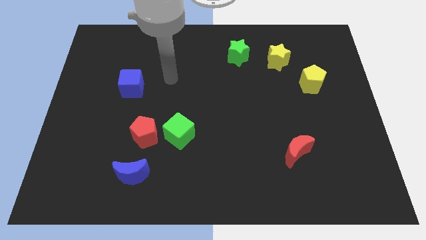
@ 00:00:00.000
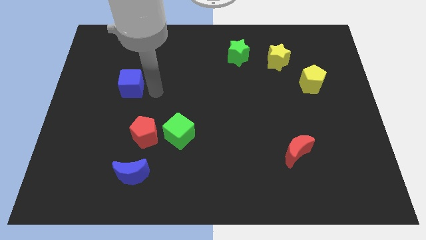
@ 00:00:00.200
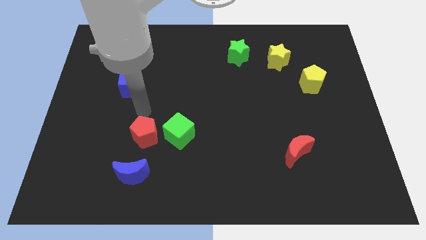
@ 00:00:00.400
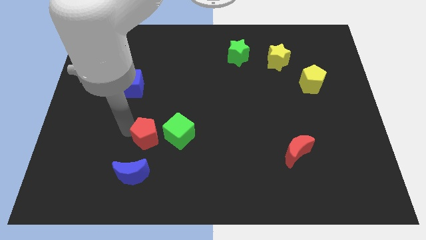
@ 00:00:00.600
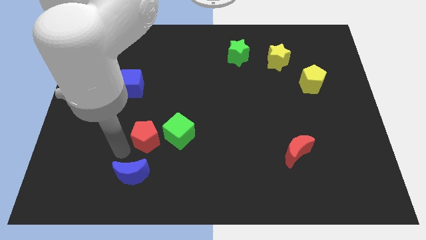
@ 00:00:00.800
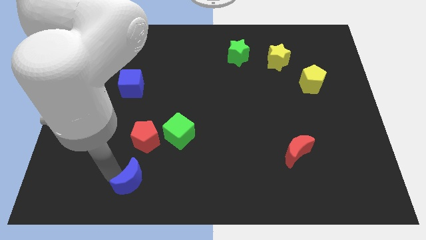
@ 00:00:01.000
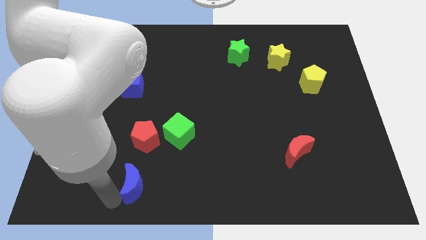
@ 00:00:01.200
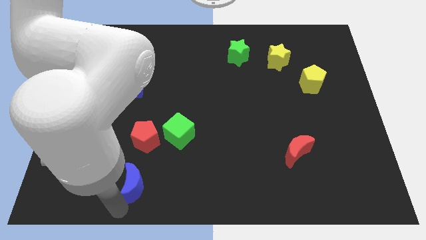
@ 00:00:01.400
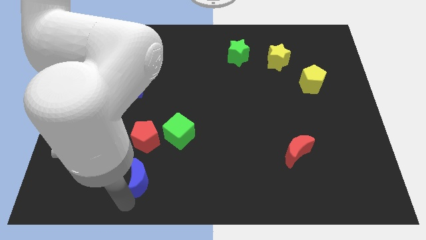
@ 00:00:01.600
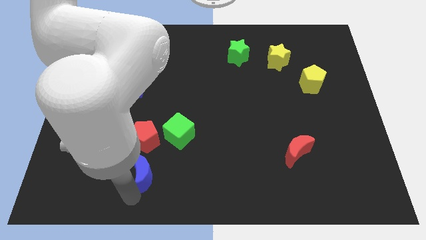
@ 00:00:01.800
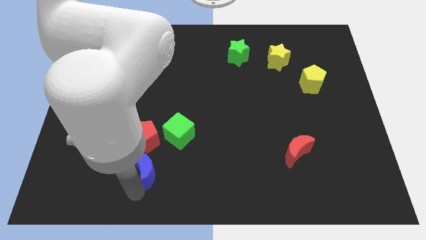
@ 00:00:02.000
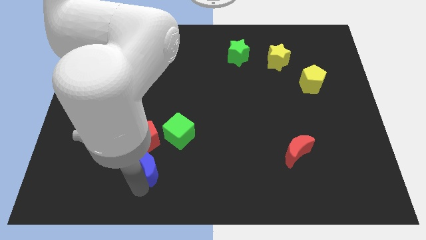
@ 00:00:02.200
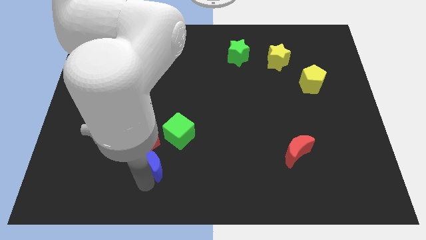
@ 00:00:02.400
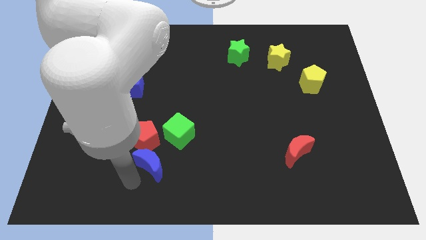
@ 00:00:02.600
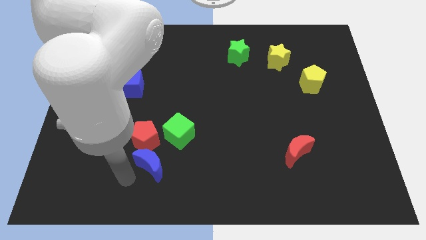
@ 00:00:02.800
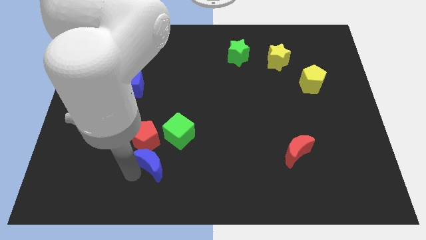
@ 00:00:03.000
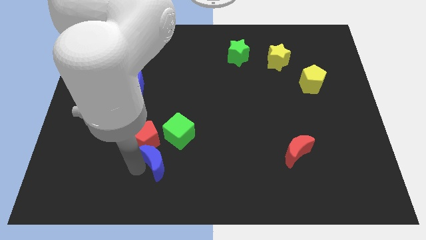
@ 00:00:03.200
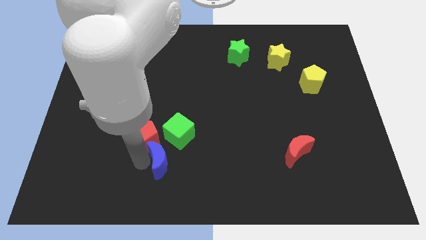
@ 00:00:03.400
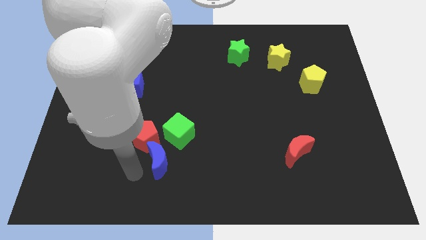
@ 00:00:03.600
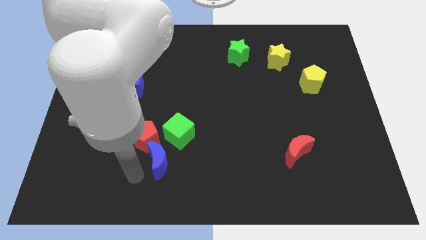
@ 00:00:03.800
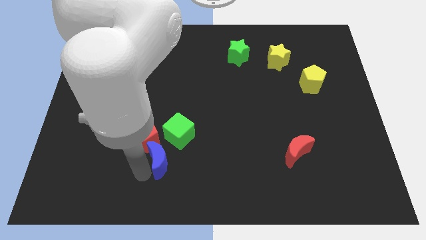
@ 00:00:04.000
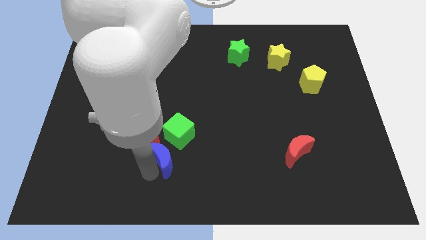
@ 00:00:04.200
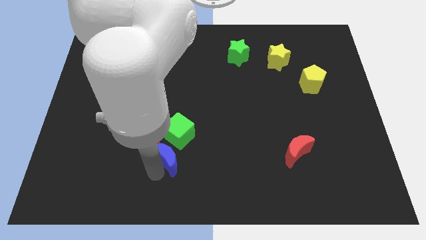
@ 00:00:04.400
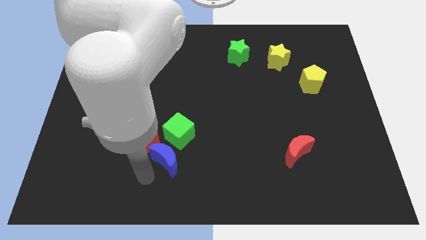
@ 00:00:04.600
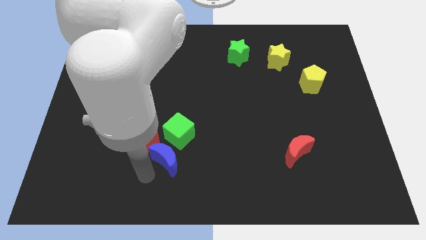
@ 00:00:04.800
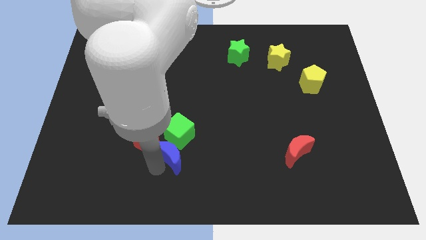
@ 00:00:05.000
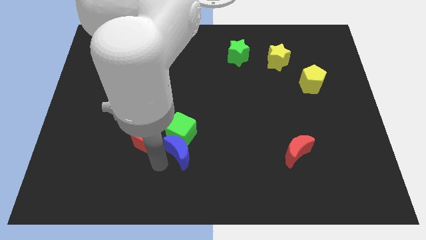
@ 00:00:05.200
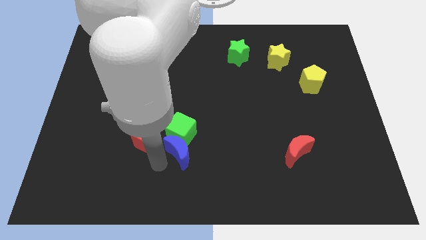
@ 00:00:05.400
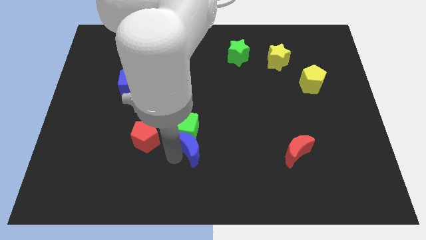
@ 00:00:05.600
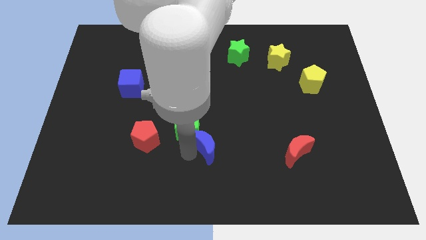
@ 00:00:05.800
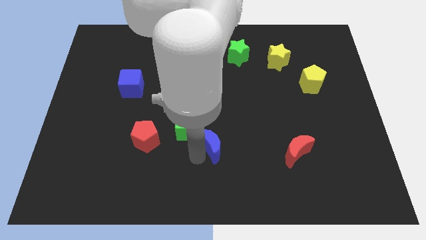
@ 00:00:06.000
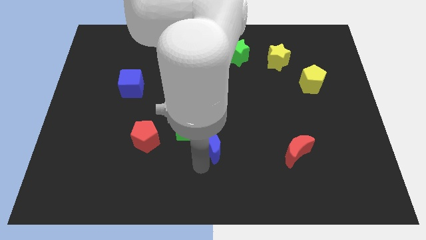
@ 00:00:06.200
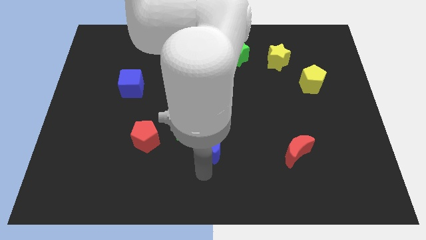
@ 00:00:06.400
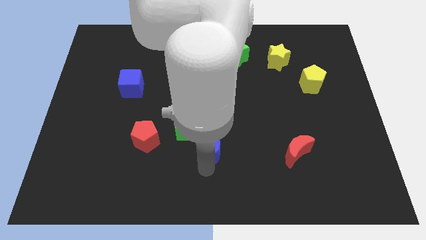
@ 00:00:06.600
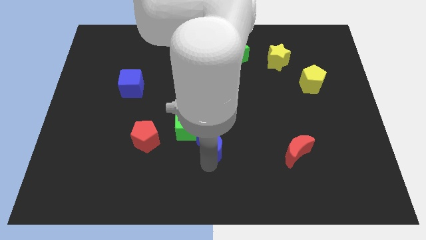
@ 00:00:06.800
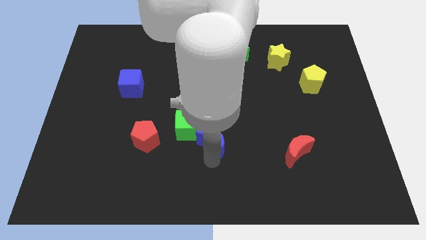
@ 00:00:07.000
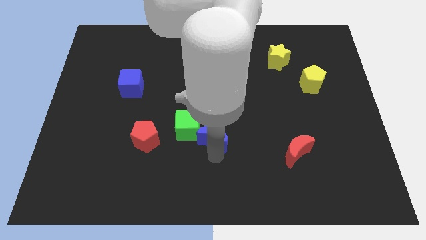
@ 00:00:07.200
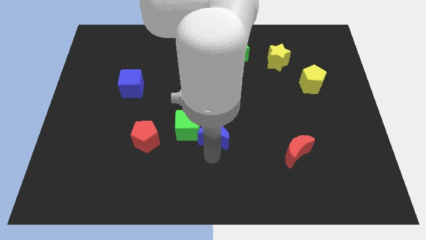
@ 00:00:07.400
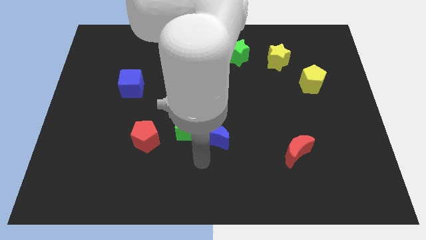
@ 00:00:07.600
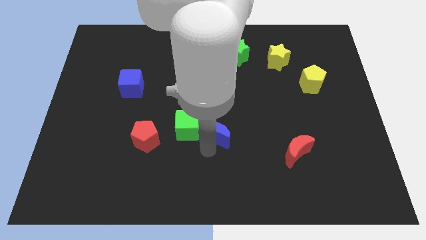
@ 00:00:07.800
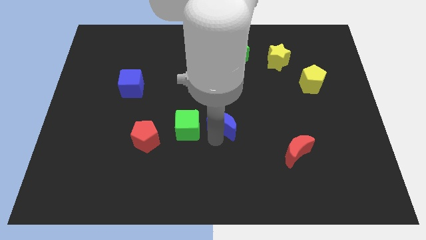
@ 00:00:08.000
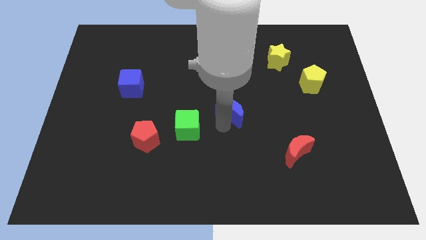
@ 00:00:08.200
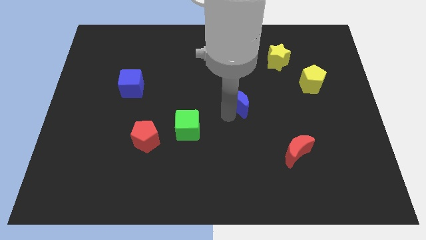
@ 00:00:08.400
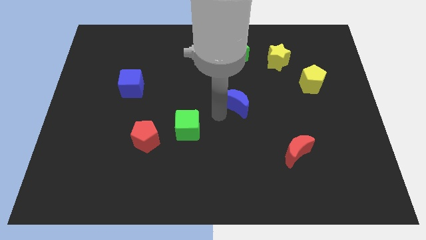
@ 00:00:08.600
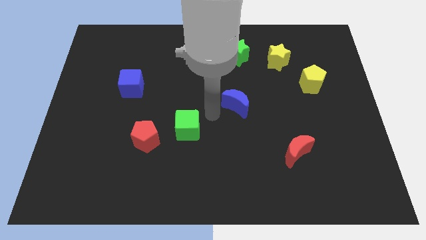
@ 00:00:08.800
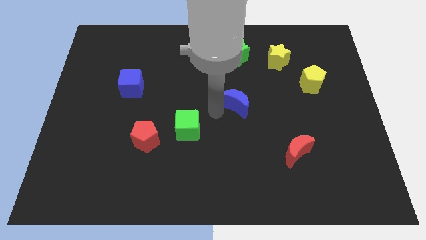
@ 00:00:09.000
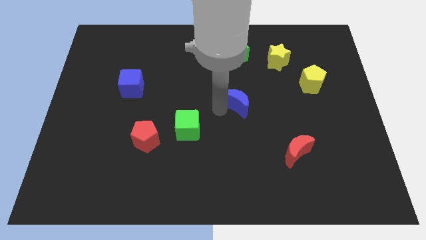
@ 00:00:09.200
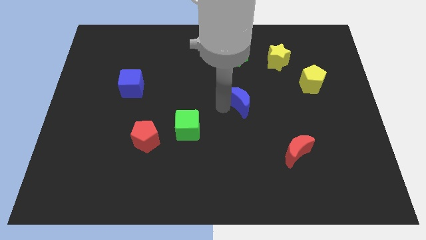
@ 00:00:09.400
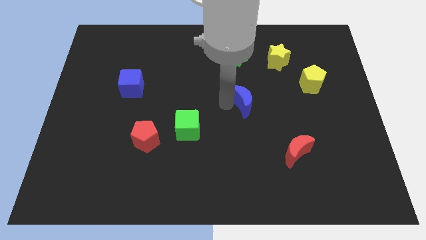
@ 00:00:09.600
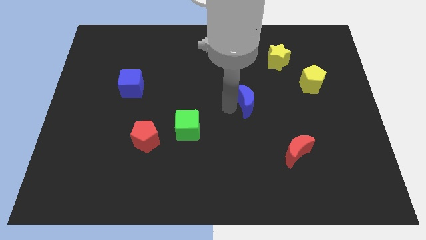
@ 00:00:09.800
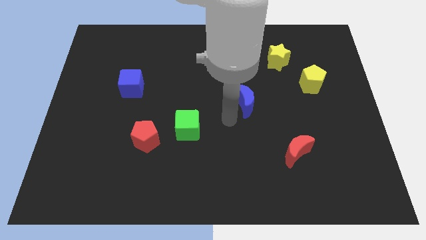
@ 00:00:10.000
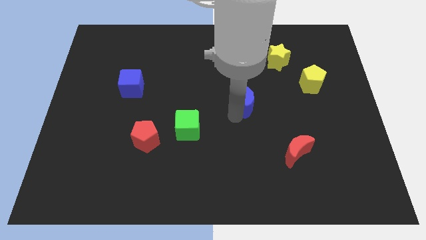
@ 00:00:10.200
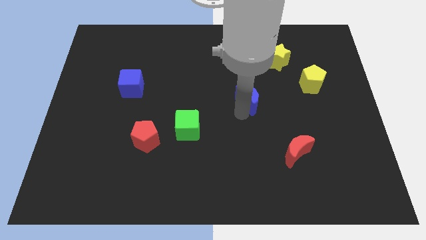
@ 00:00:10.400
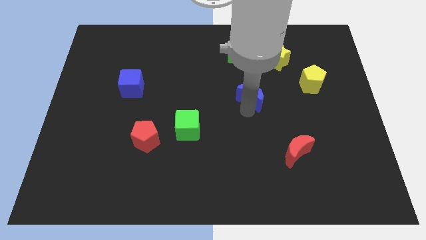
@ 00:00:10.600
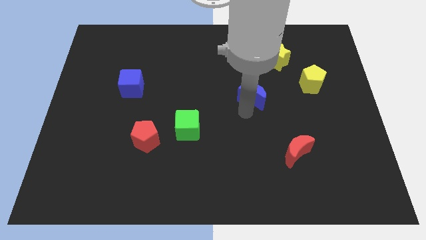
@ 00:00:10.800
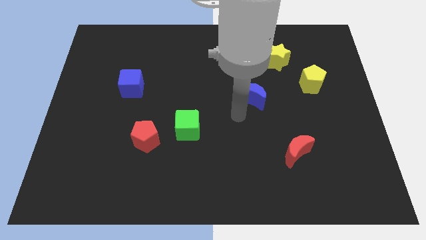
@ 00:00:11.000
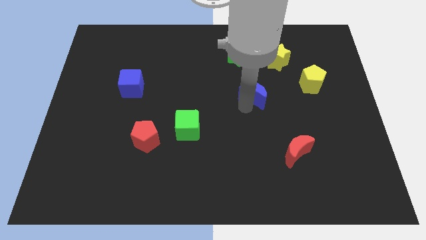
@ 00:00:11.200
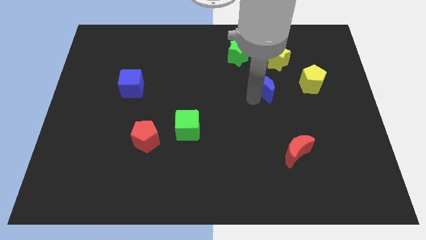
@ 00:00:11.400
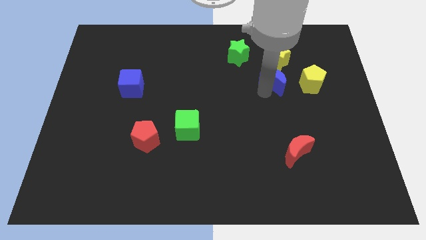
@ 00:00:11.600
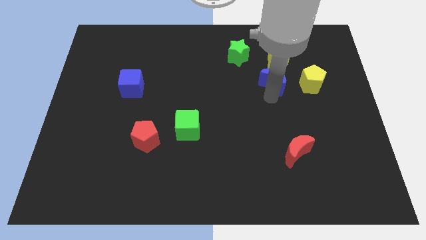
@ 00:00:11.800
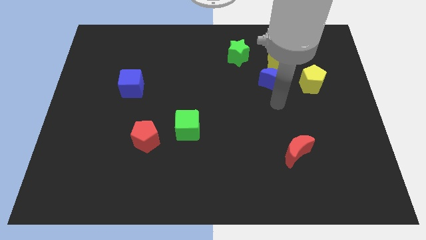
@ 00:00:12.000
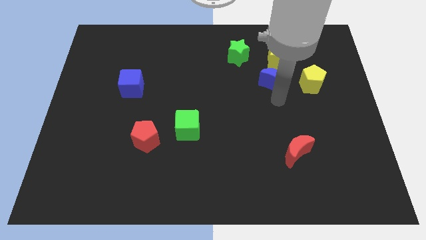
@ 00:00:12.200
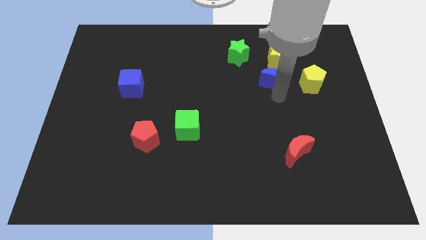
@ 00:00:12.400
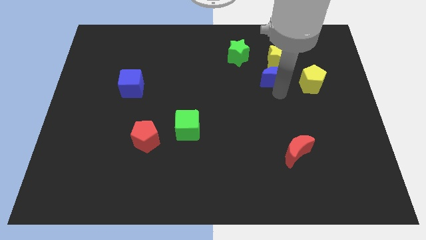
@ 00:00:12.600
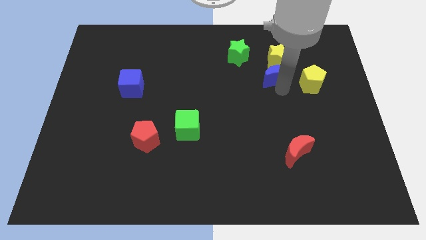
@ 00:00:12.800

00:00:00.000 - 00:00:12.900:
move the blue moon to the yellow star
